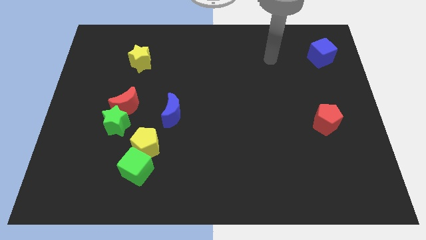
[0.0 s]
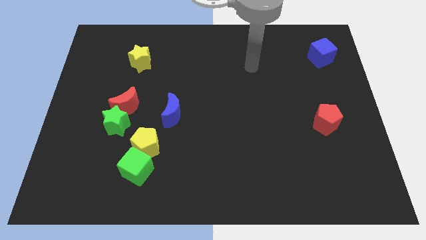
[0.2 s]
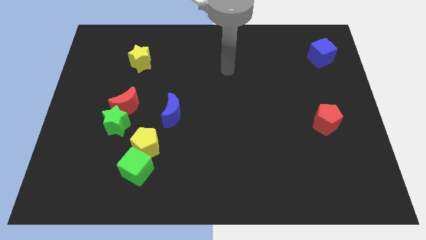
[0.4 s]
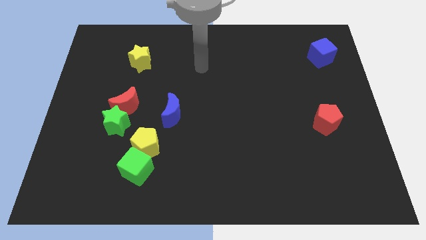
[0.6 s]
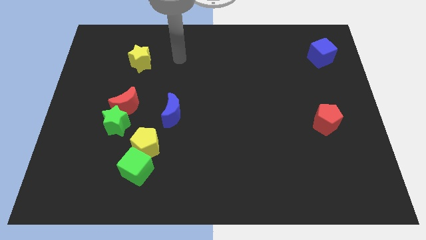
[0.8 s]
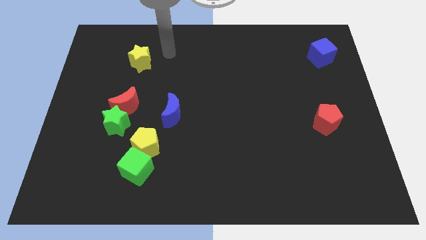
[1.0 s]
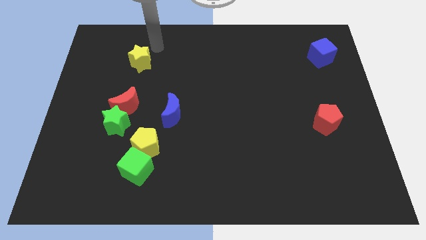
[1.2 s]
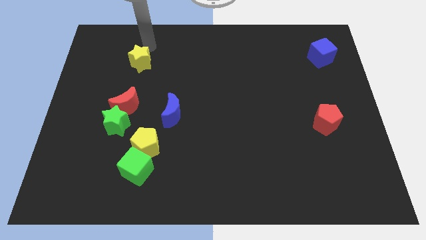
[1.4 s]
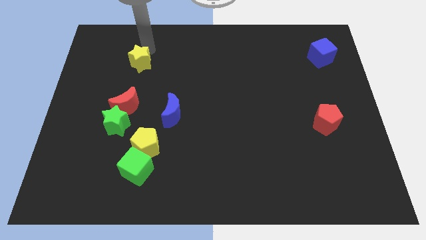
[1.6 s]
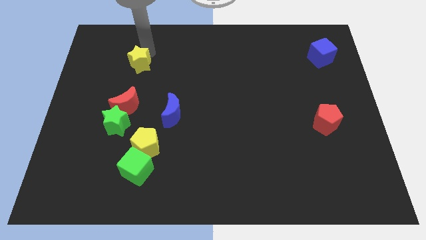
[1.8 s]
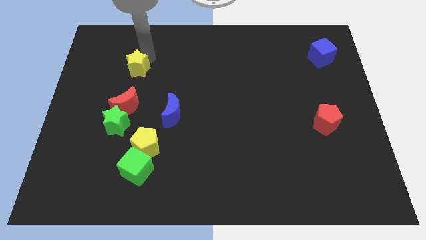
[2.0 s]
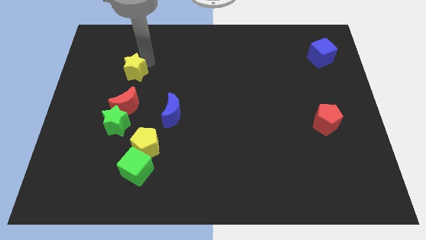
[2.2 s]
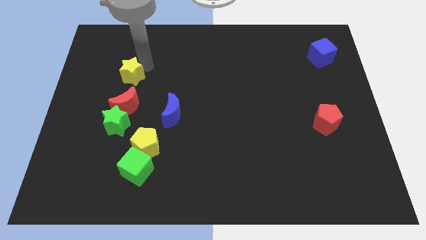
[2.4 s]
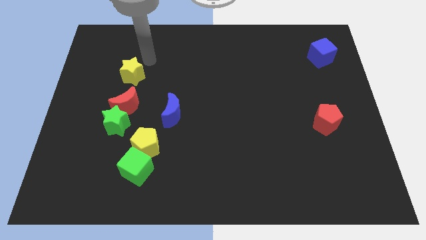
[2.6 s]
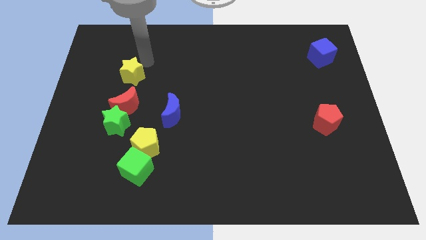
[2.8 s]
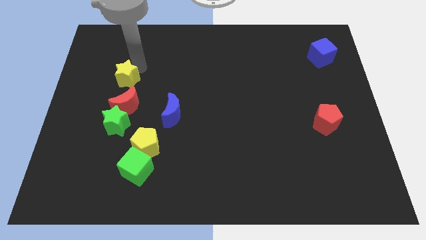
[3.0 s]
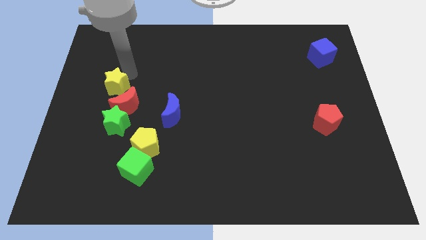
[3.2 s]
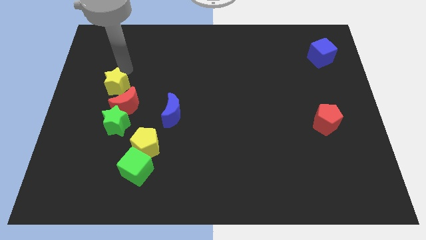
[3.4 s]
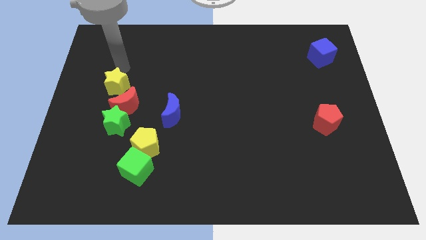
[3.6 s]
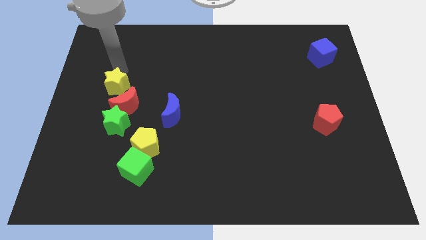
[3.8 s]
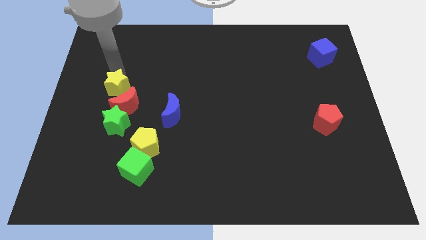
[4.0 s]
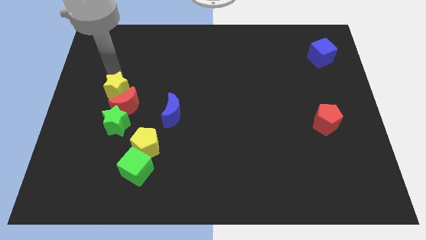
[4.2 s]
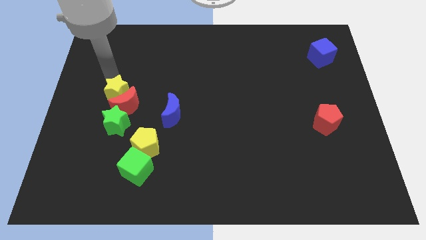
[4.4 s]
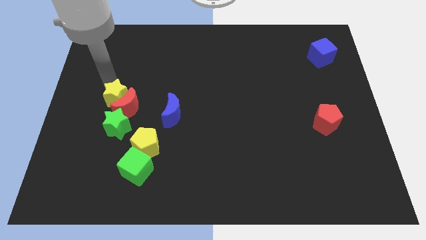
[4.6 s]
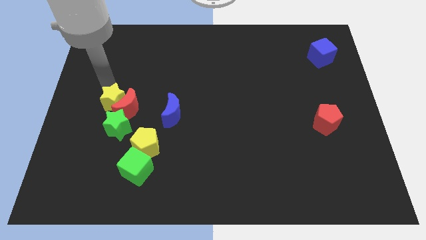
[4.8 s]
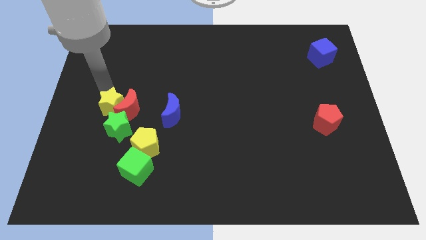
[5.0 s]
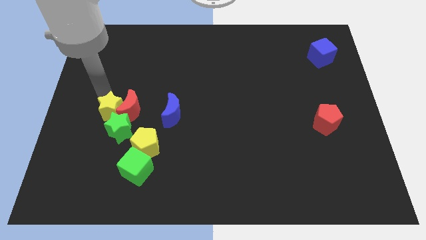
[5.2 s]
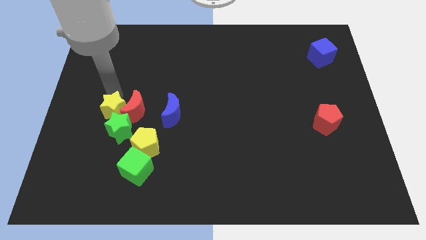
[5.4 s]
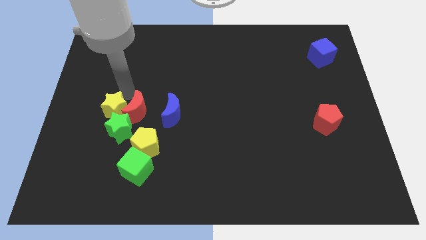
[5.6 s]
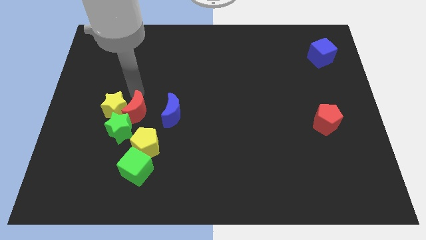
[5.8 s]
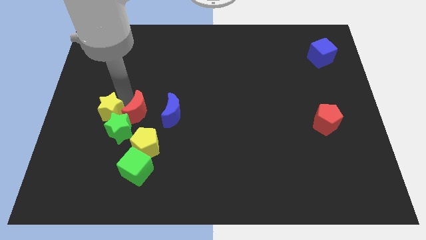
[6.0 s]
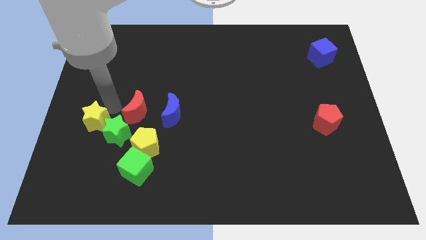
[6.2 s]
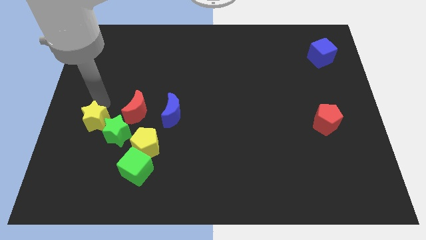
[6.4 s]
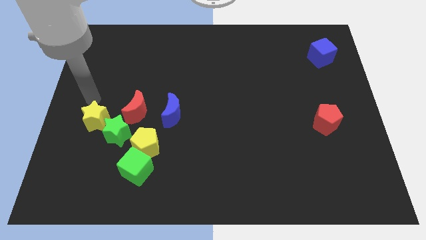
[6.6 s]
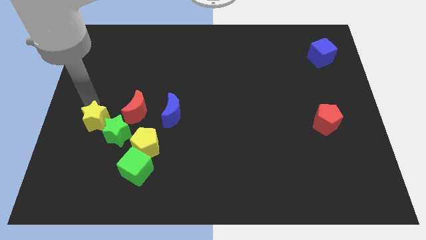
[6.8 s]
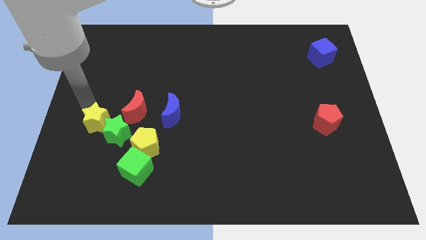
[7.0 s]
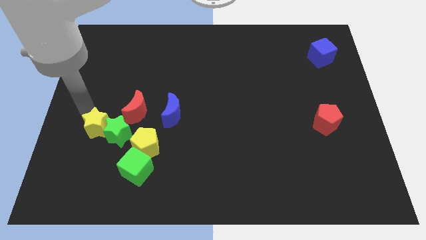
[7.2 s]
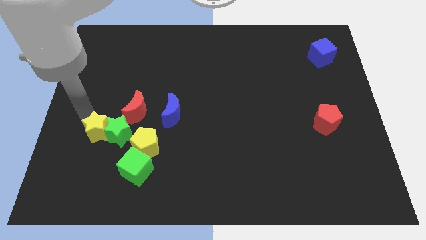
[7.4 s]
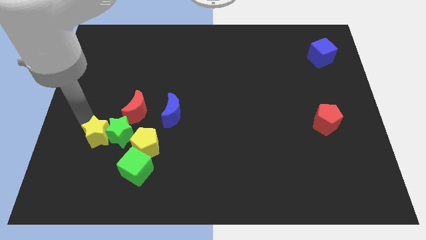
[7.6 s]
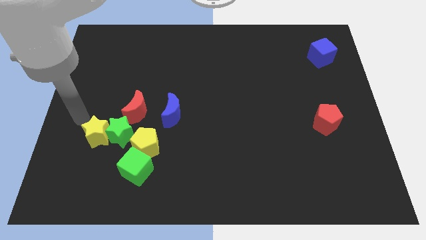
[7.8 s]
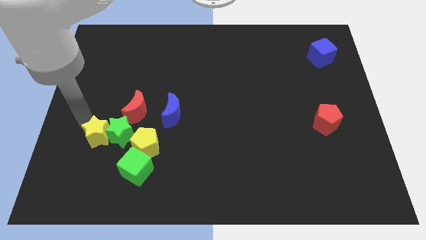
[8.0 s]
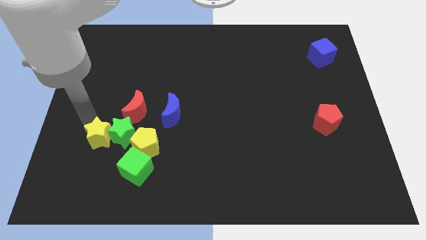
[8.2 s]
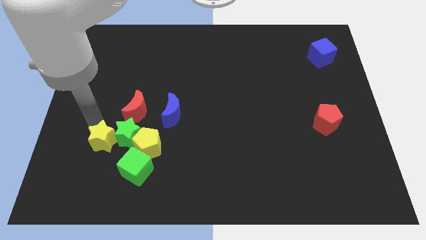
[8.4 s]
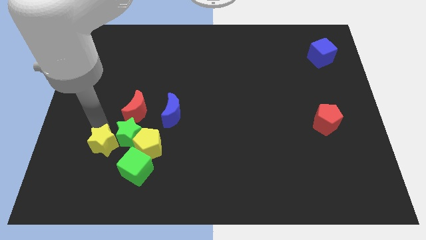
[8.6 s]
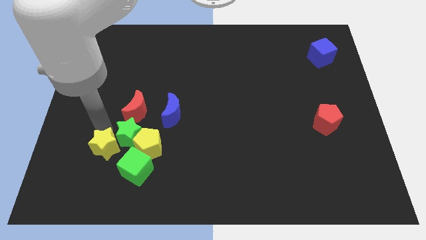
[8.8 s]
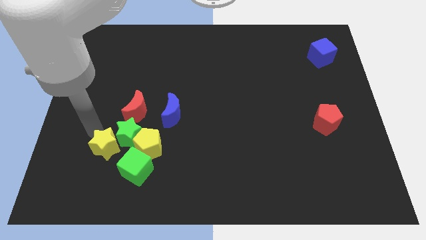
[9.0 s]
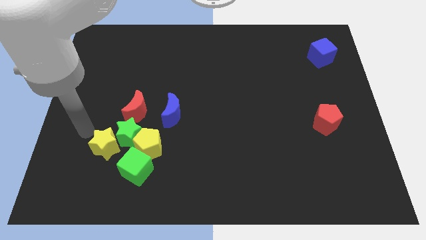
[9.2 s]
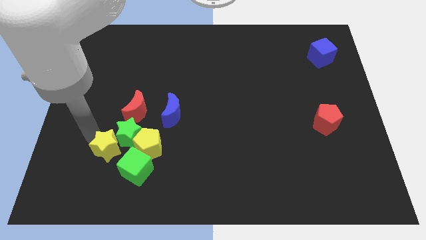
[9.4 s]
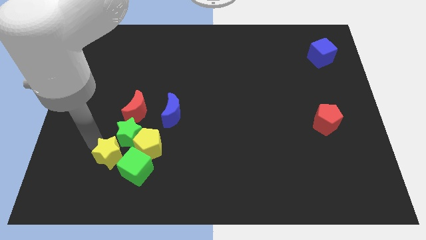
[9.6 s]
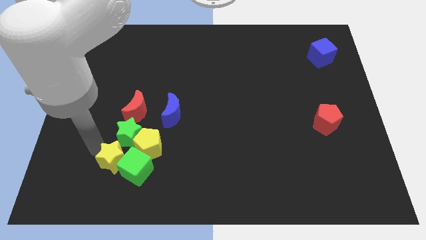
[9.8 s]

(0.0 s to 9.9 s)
push the yellow star close to the green cube

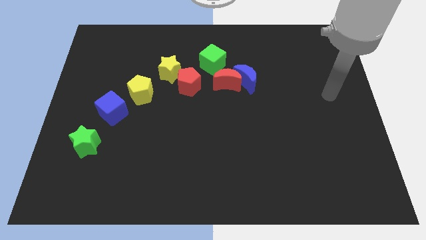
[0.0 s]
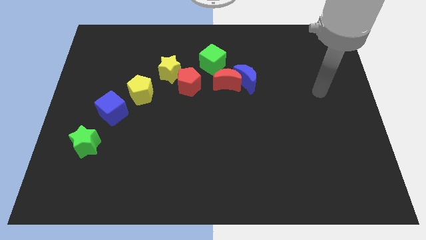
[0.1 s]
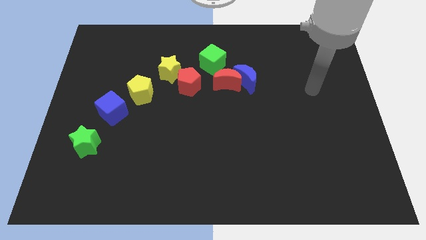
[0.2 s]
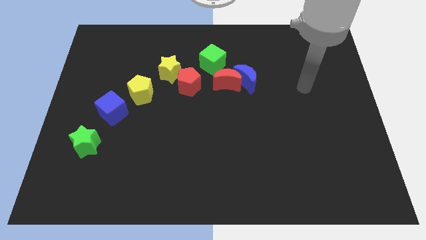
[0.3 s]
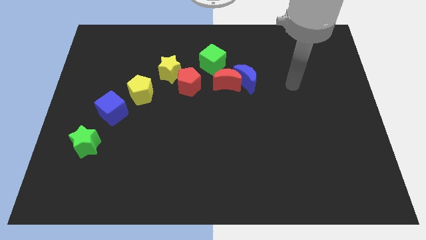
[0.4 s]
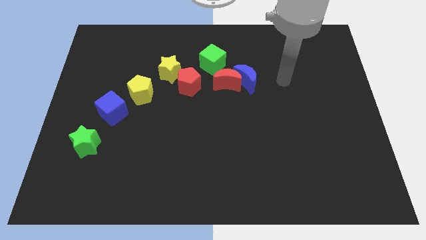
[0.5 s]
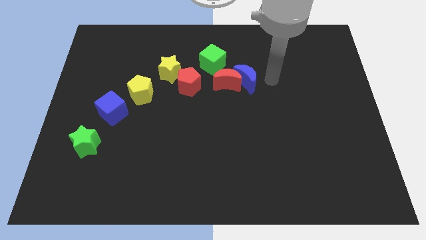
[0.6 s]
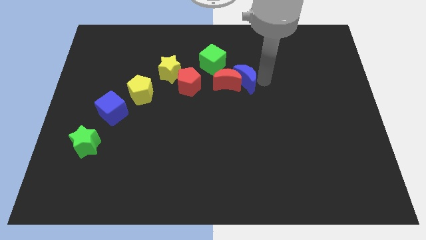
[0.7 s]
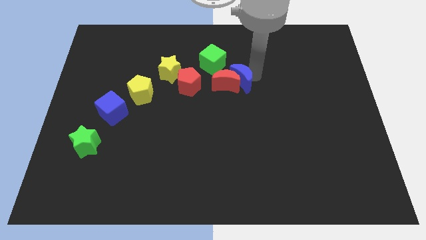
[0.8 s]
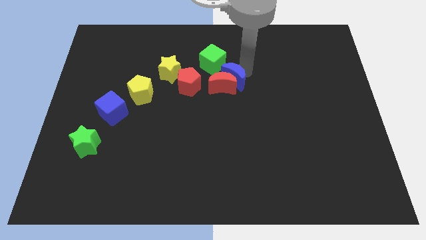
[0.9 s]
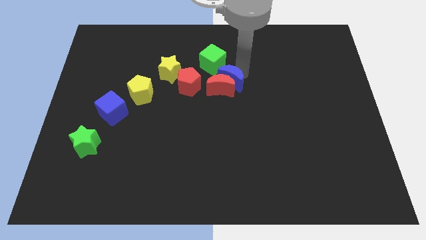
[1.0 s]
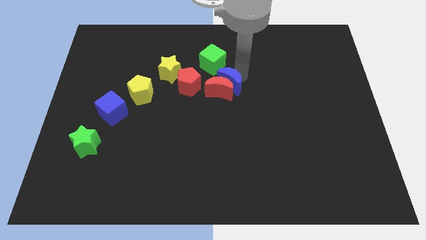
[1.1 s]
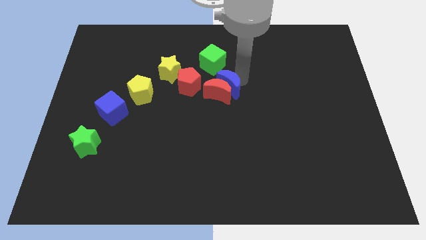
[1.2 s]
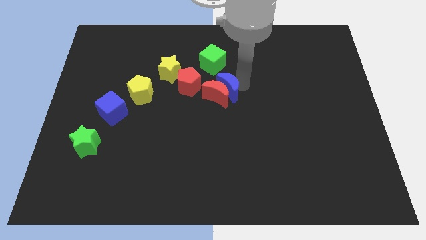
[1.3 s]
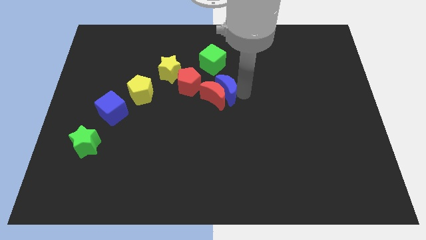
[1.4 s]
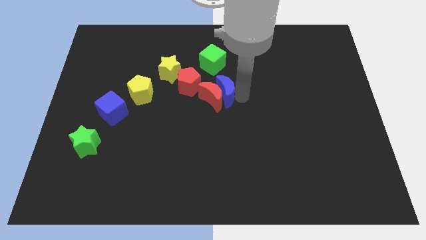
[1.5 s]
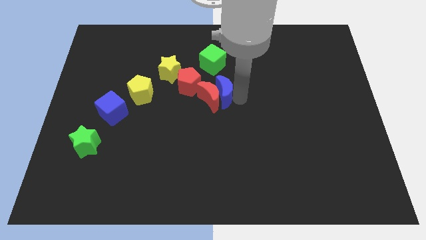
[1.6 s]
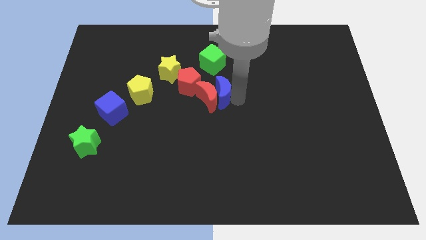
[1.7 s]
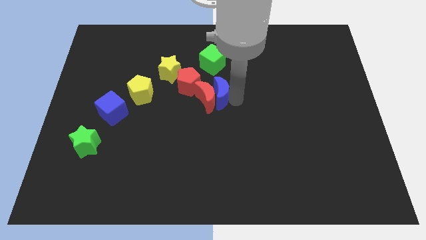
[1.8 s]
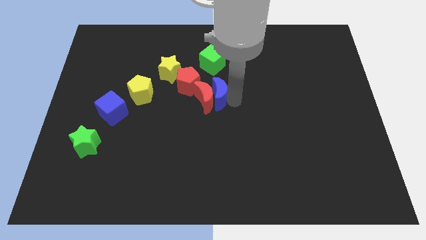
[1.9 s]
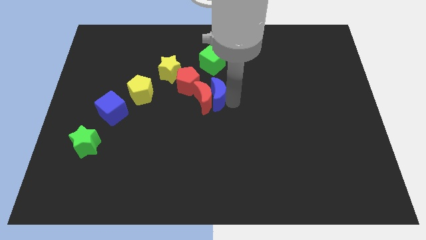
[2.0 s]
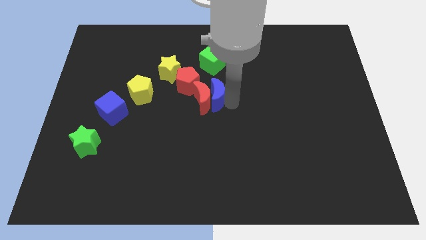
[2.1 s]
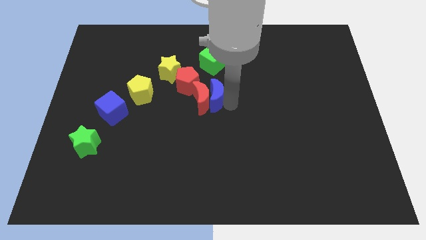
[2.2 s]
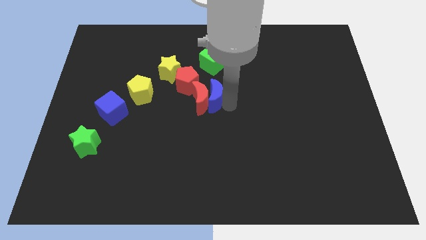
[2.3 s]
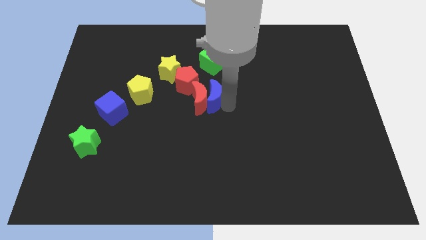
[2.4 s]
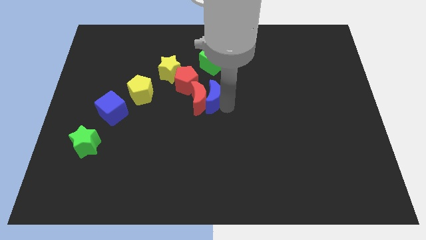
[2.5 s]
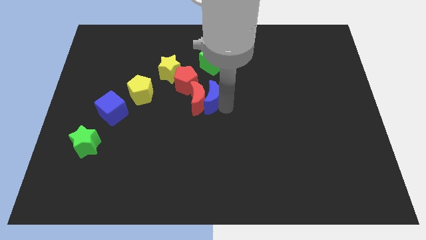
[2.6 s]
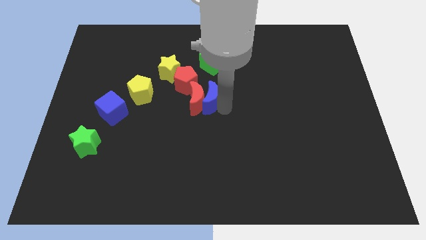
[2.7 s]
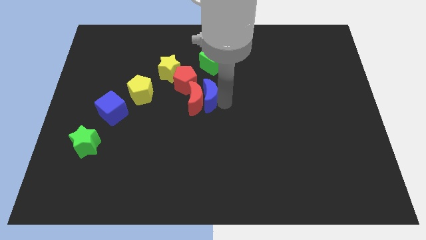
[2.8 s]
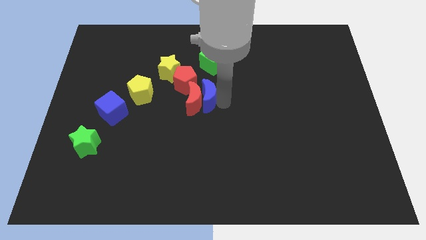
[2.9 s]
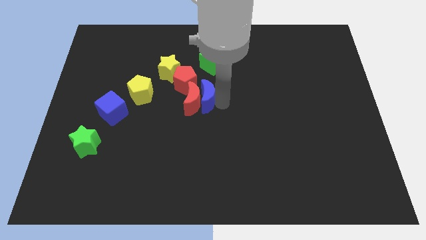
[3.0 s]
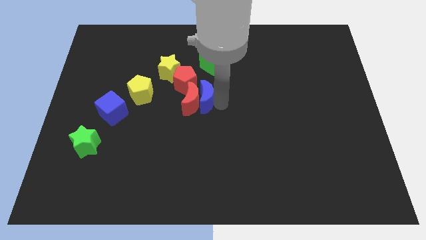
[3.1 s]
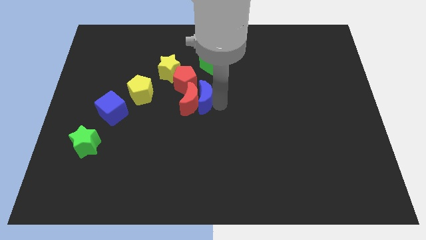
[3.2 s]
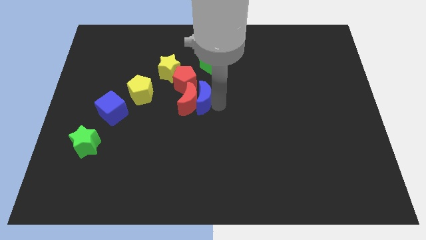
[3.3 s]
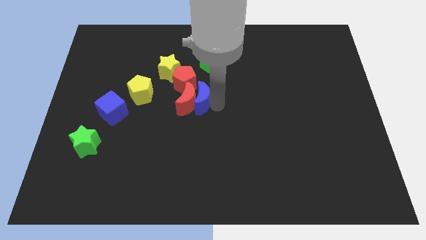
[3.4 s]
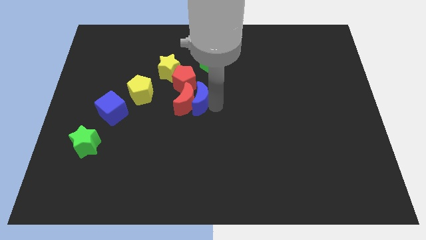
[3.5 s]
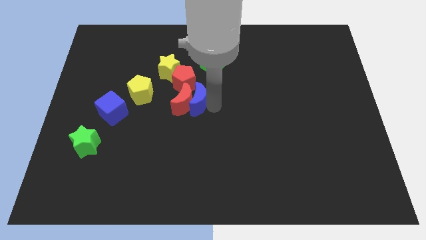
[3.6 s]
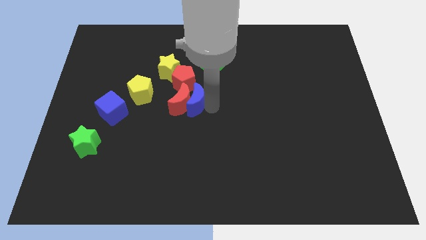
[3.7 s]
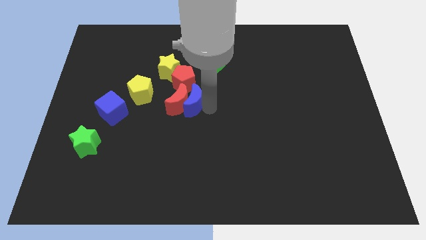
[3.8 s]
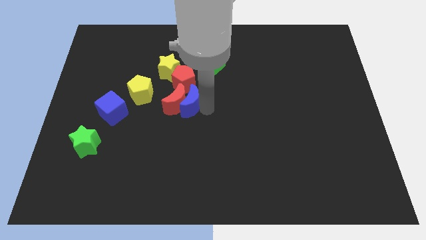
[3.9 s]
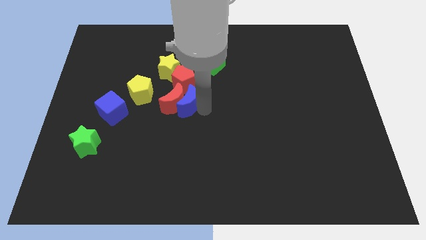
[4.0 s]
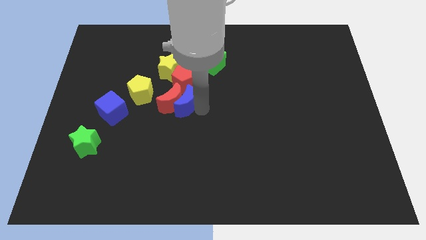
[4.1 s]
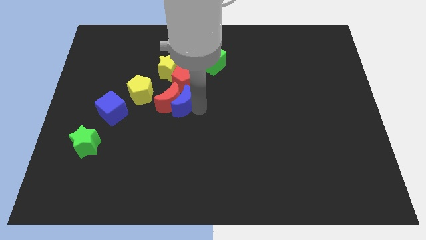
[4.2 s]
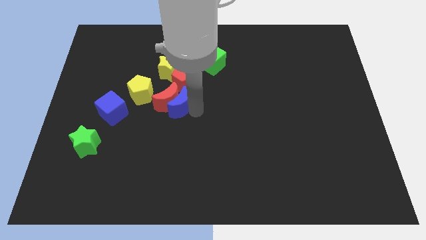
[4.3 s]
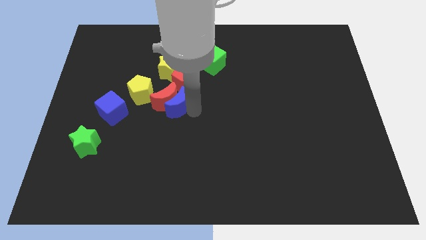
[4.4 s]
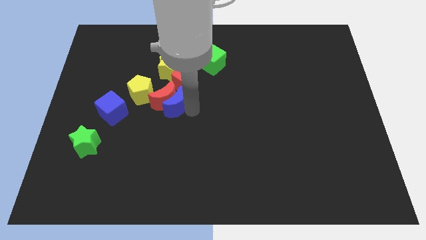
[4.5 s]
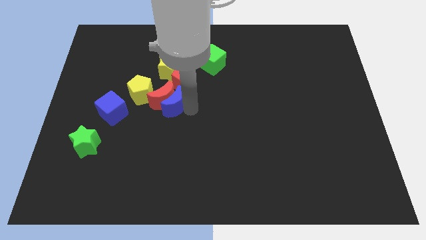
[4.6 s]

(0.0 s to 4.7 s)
slide the red moon close to the yellow pentagon
